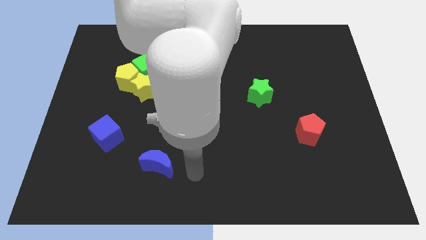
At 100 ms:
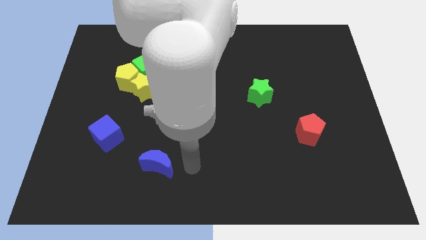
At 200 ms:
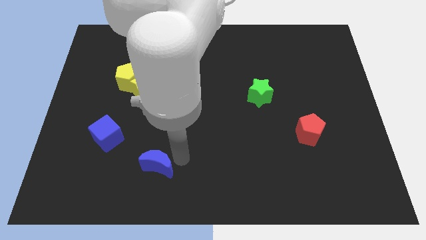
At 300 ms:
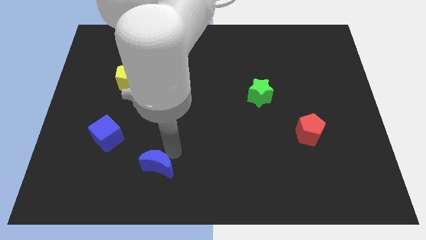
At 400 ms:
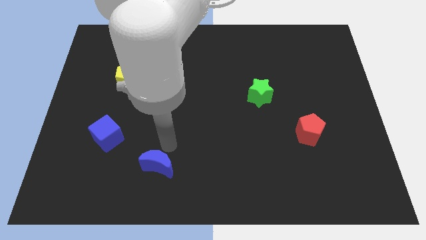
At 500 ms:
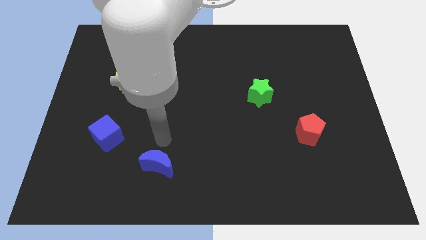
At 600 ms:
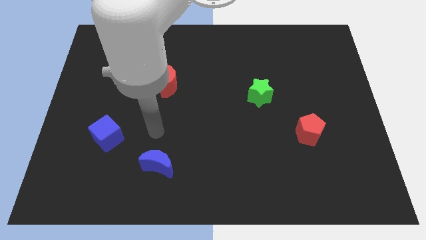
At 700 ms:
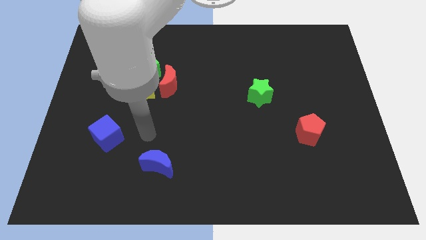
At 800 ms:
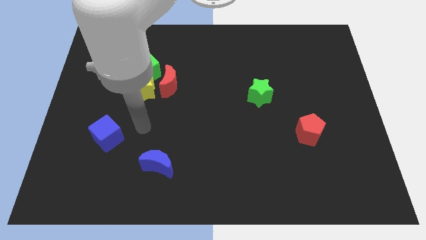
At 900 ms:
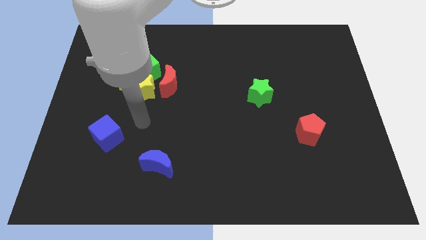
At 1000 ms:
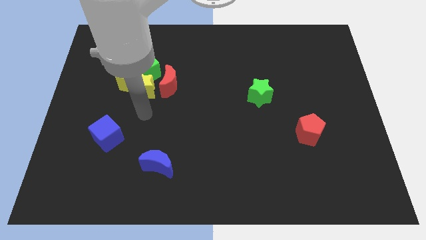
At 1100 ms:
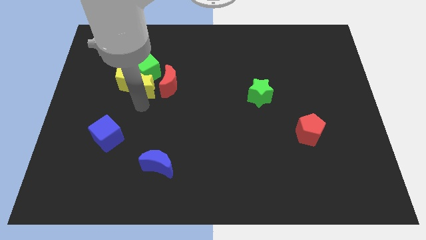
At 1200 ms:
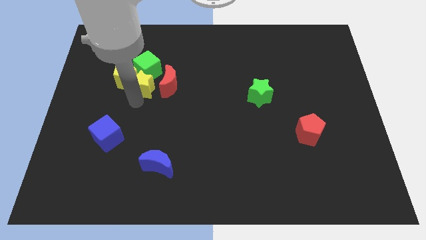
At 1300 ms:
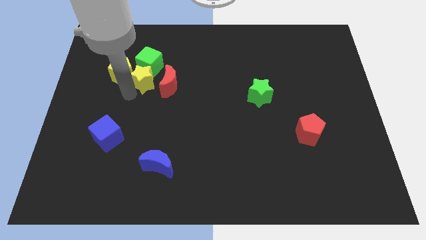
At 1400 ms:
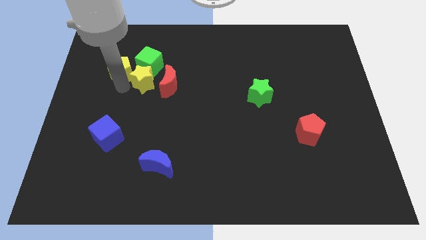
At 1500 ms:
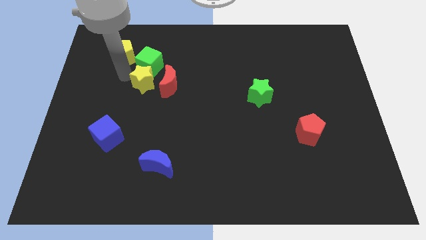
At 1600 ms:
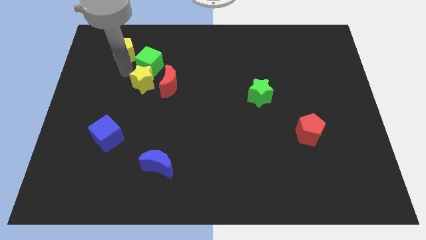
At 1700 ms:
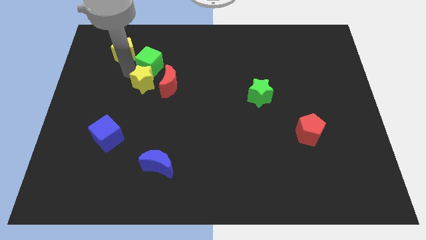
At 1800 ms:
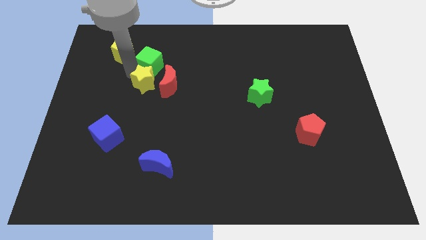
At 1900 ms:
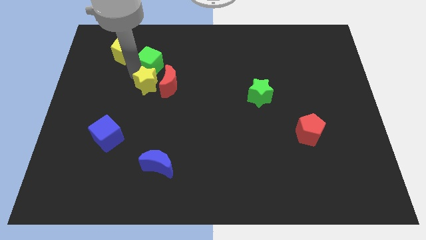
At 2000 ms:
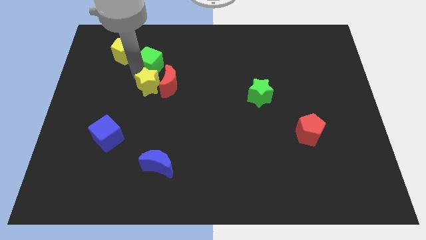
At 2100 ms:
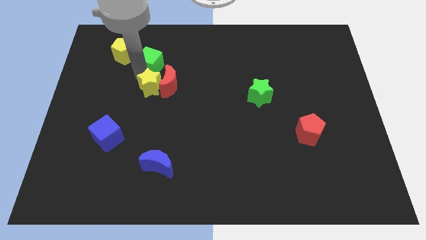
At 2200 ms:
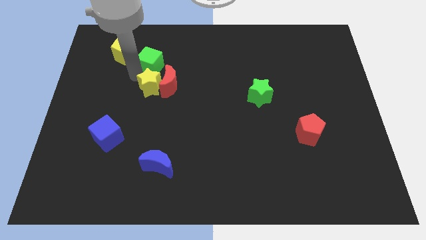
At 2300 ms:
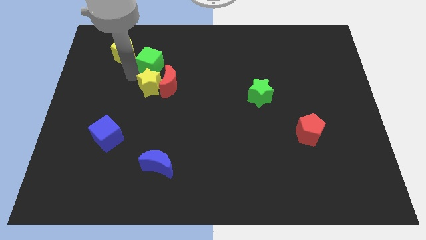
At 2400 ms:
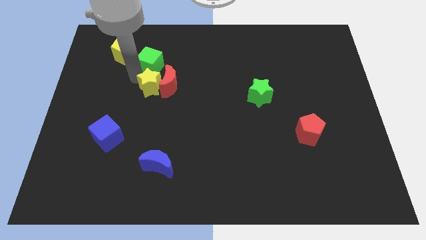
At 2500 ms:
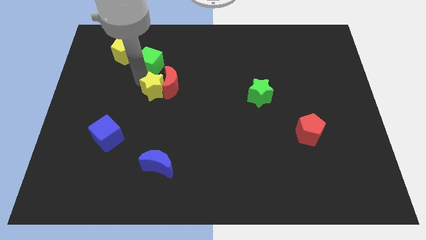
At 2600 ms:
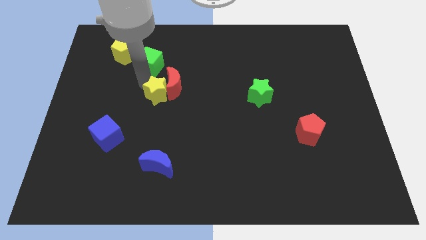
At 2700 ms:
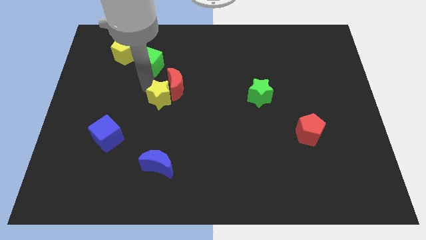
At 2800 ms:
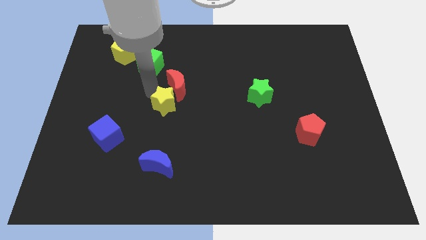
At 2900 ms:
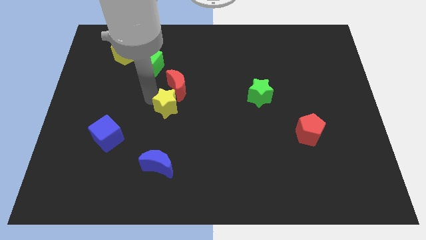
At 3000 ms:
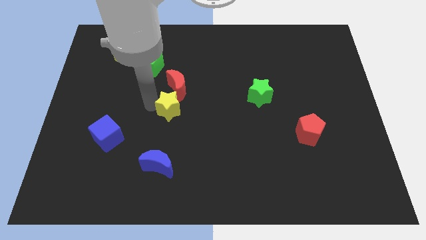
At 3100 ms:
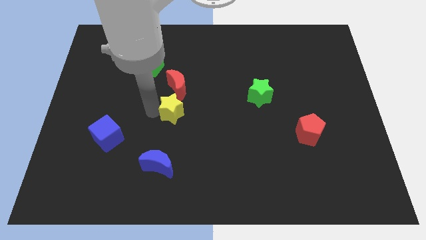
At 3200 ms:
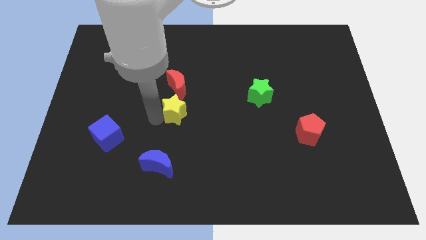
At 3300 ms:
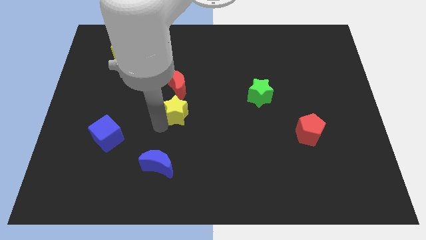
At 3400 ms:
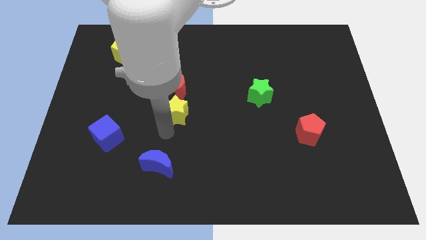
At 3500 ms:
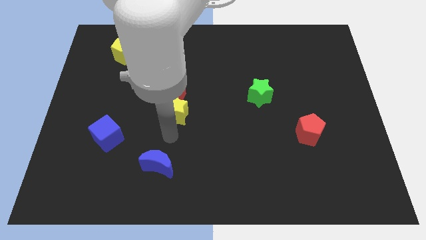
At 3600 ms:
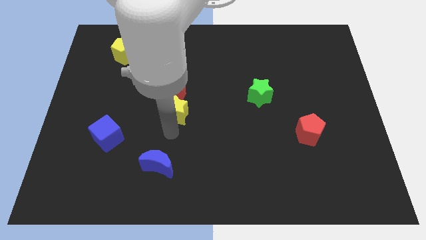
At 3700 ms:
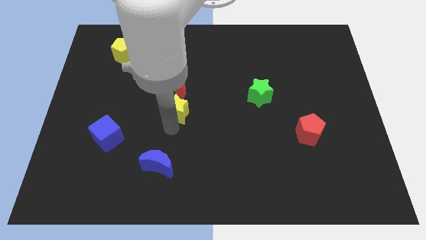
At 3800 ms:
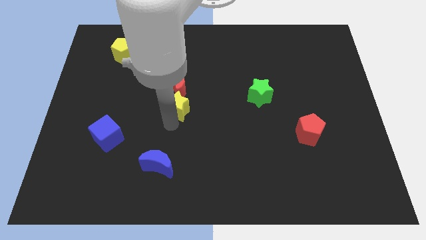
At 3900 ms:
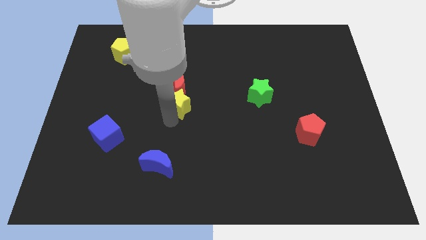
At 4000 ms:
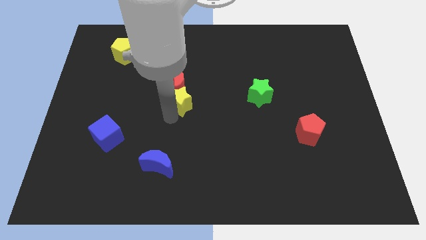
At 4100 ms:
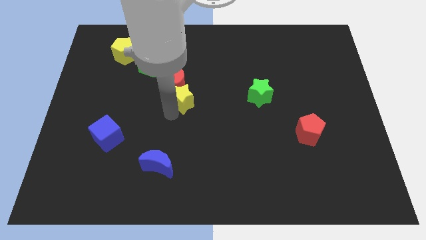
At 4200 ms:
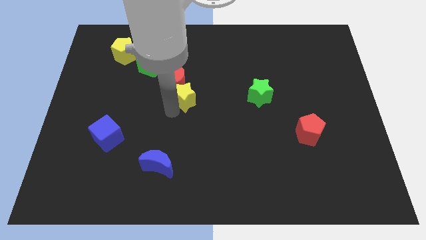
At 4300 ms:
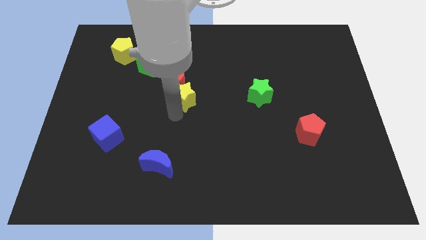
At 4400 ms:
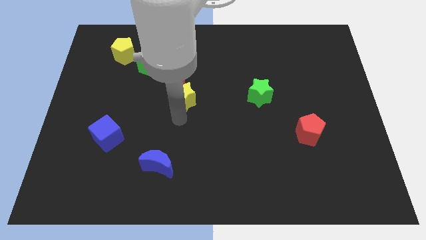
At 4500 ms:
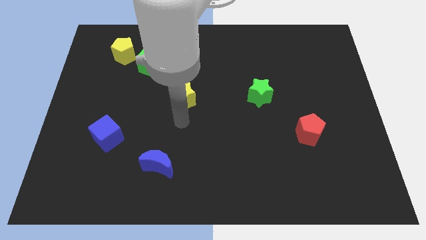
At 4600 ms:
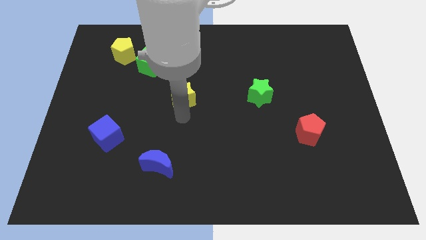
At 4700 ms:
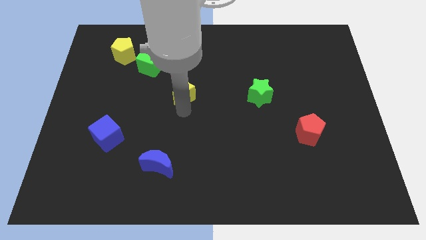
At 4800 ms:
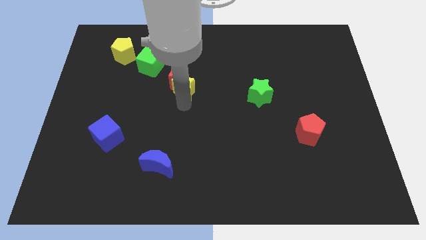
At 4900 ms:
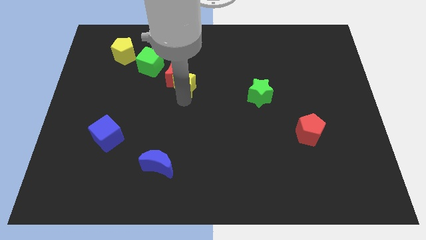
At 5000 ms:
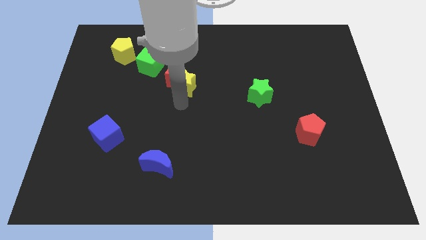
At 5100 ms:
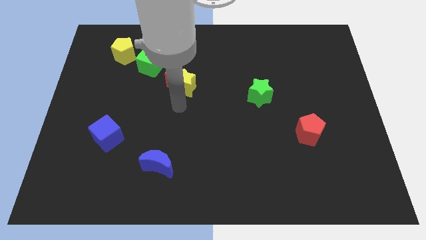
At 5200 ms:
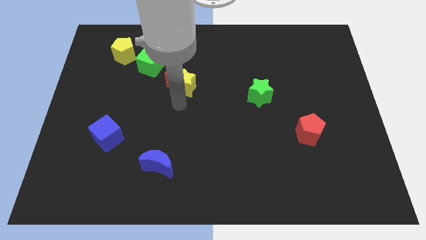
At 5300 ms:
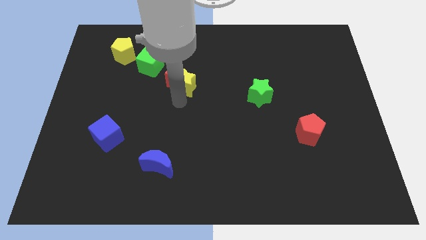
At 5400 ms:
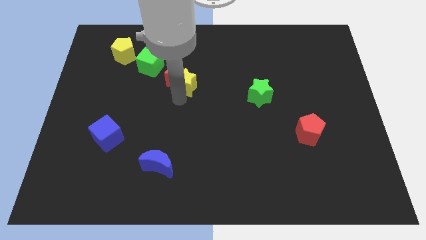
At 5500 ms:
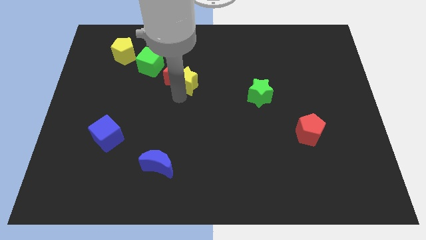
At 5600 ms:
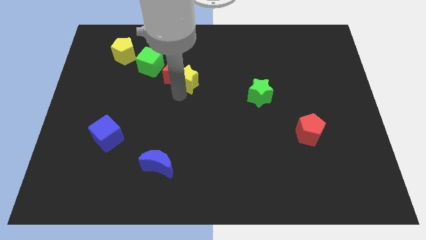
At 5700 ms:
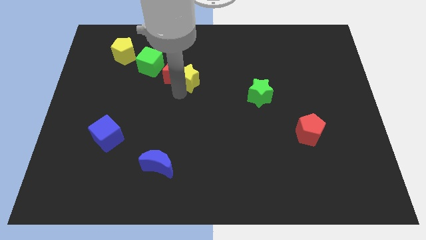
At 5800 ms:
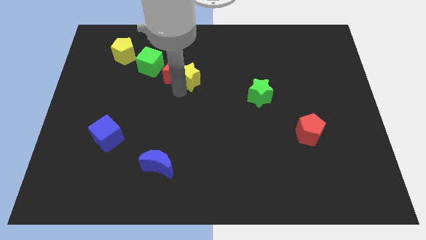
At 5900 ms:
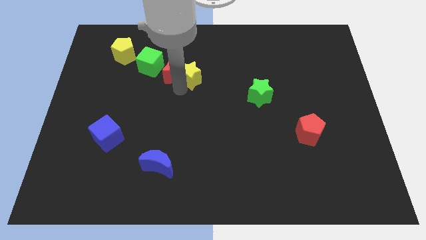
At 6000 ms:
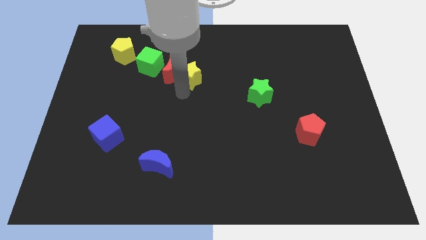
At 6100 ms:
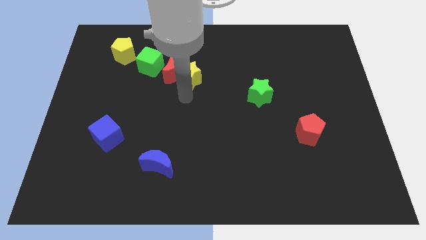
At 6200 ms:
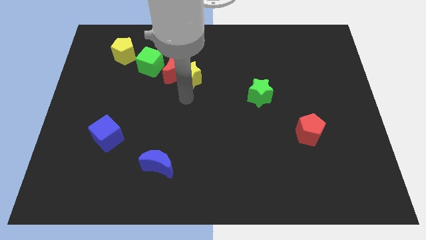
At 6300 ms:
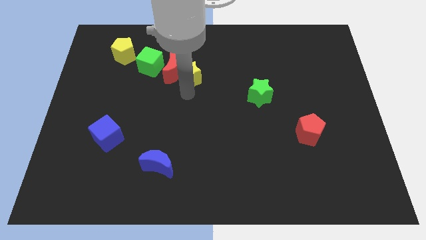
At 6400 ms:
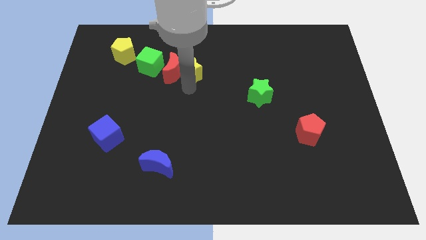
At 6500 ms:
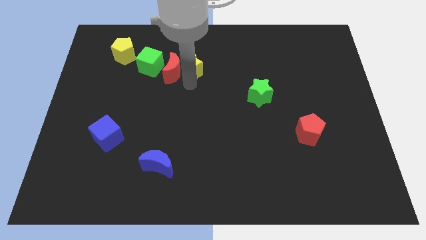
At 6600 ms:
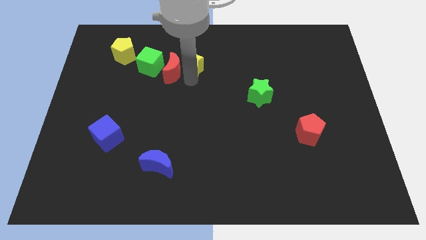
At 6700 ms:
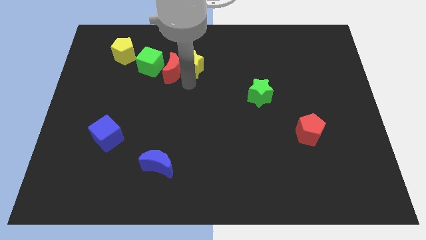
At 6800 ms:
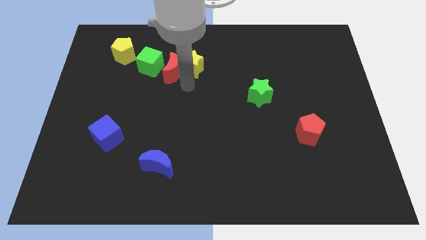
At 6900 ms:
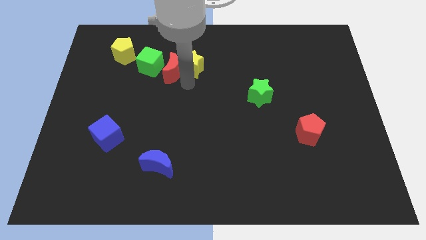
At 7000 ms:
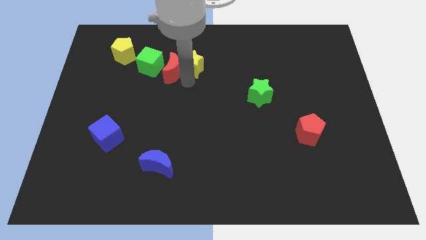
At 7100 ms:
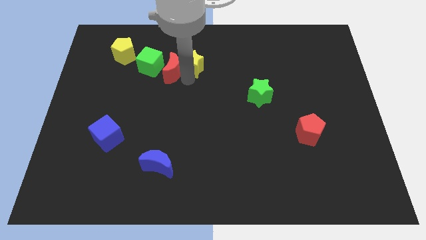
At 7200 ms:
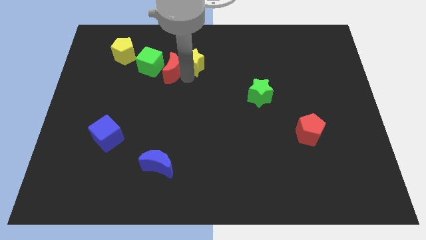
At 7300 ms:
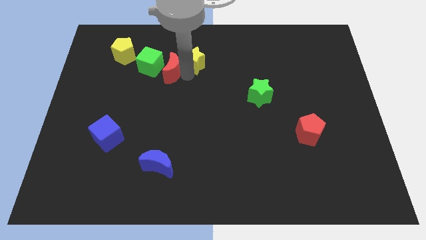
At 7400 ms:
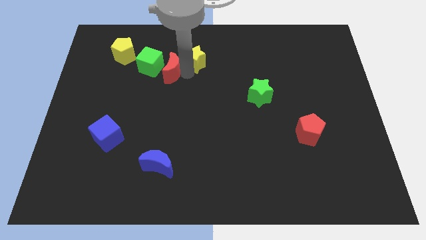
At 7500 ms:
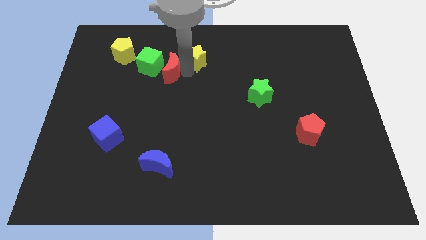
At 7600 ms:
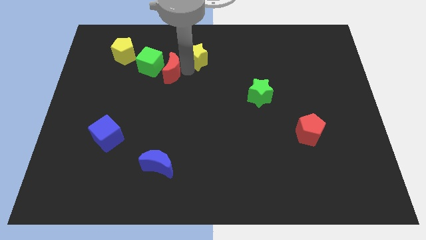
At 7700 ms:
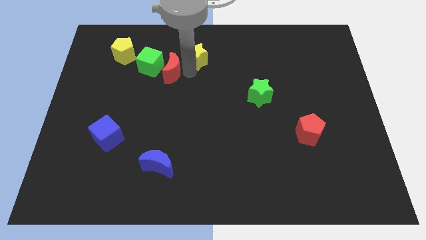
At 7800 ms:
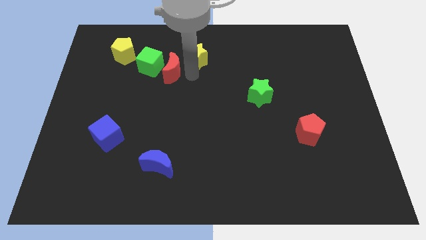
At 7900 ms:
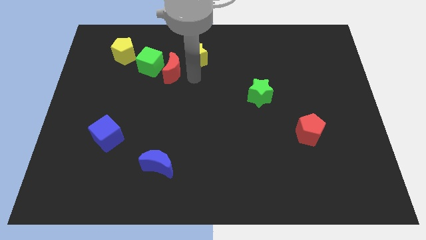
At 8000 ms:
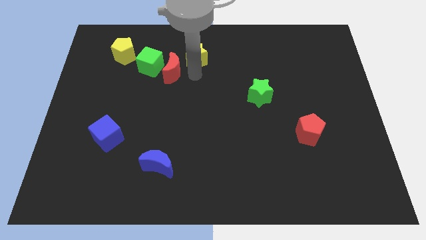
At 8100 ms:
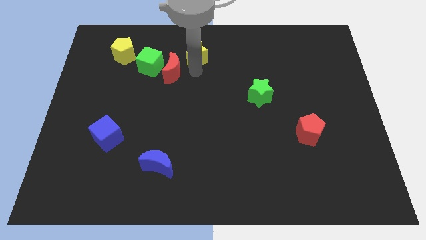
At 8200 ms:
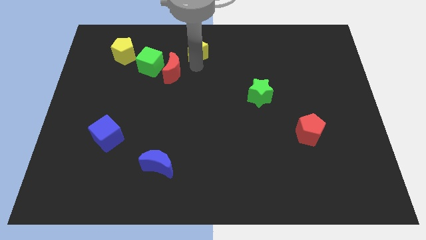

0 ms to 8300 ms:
move the yellow star to the top side
